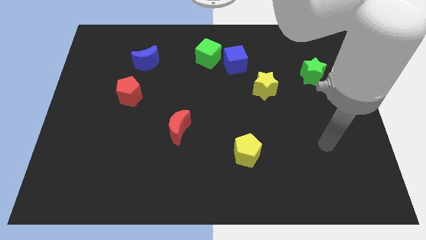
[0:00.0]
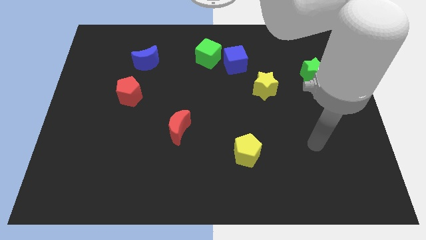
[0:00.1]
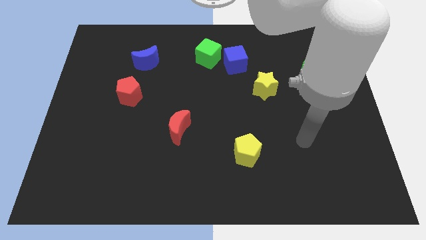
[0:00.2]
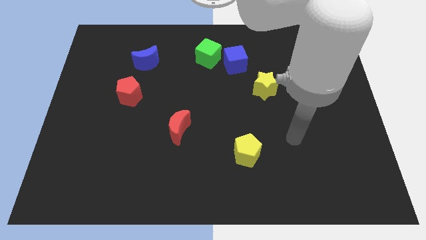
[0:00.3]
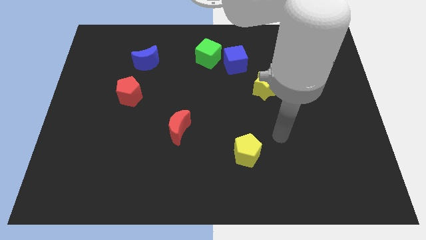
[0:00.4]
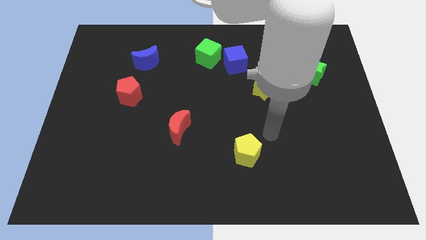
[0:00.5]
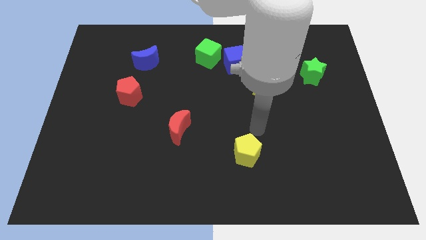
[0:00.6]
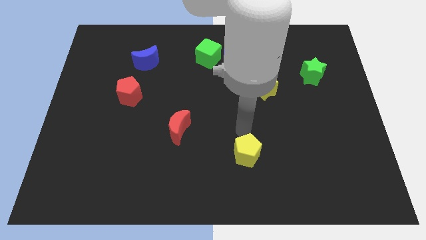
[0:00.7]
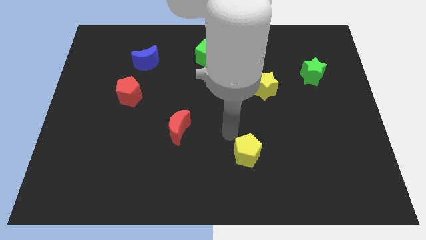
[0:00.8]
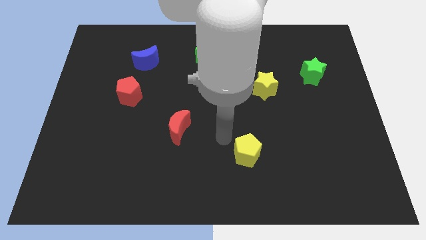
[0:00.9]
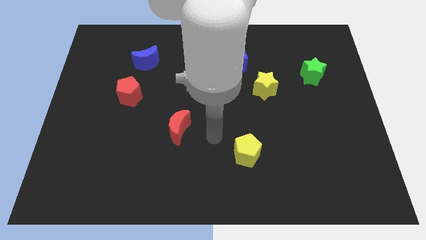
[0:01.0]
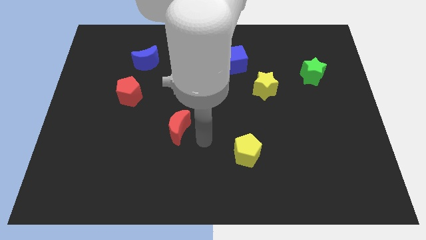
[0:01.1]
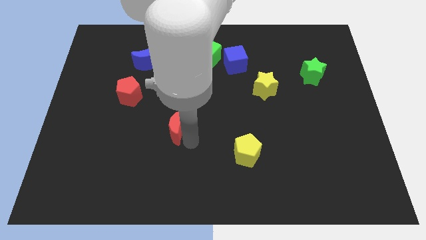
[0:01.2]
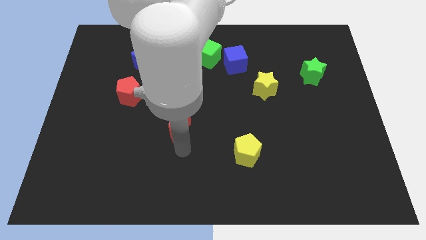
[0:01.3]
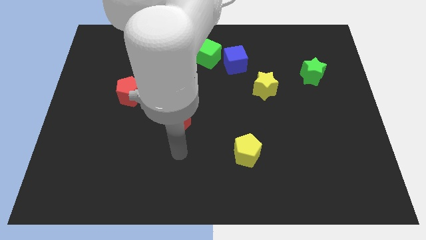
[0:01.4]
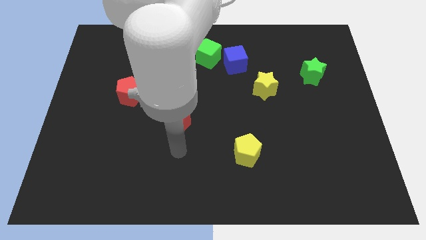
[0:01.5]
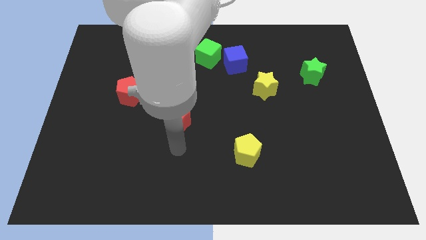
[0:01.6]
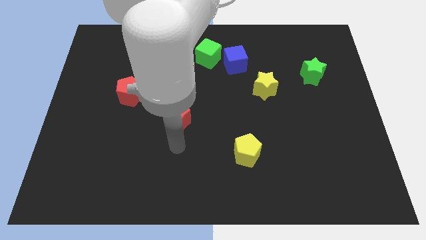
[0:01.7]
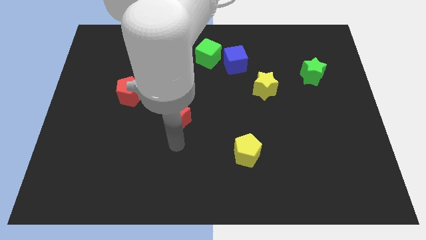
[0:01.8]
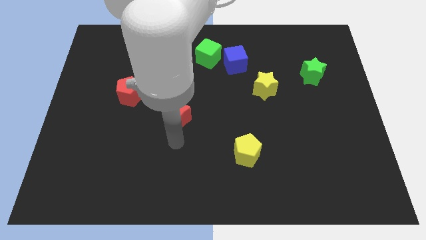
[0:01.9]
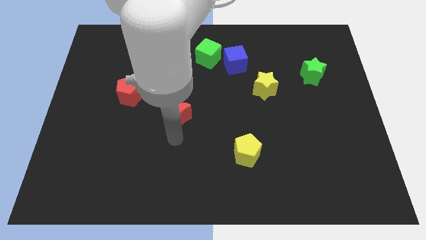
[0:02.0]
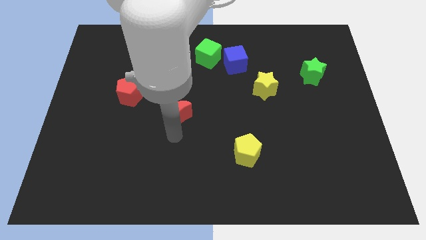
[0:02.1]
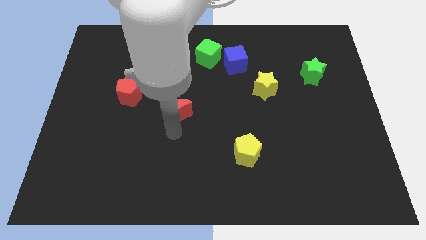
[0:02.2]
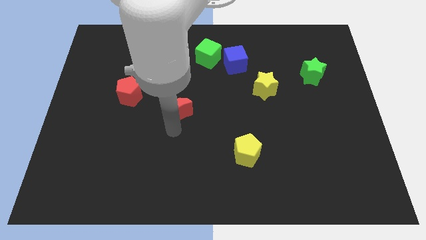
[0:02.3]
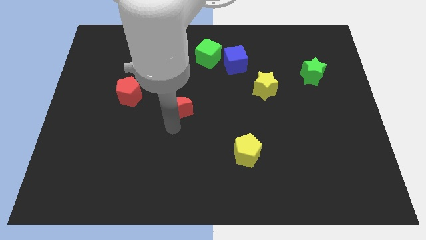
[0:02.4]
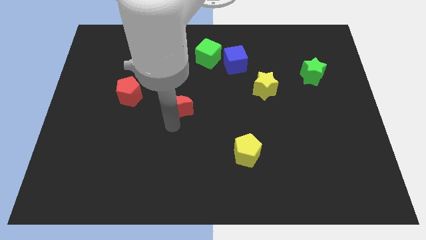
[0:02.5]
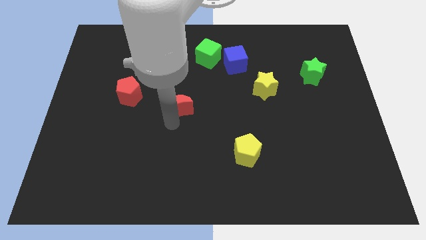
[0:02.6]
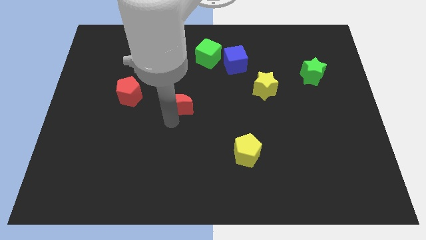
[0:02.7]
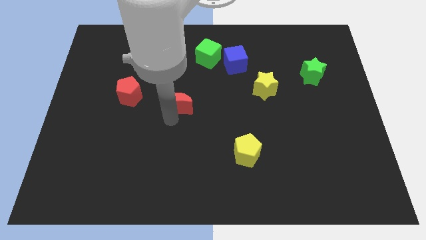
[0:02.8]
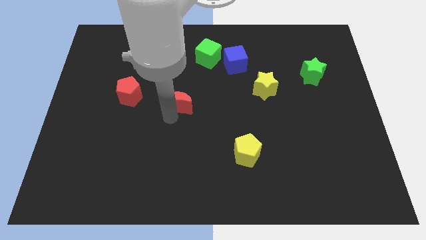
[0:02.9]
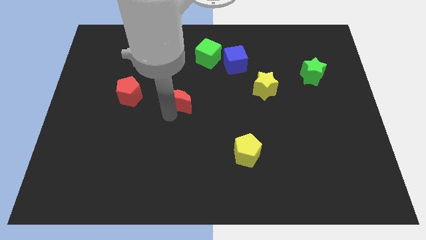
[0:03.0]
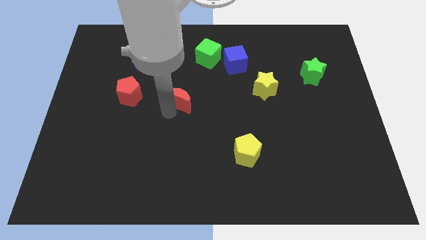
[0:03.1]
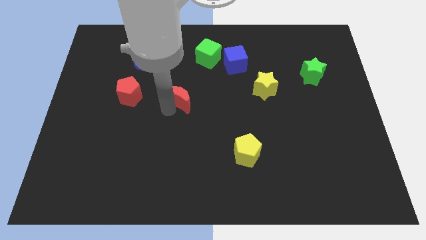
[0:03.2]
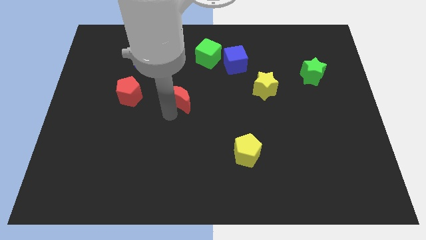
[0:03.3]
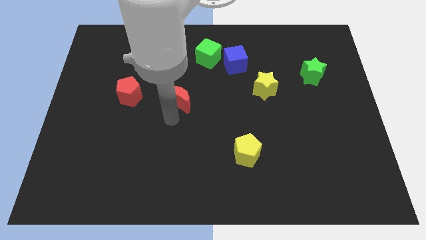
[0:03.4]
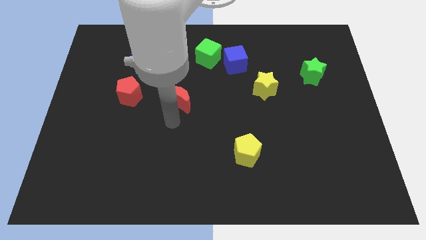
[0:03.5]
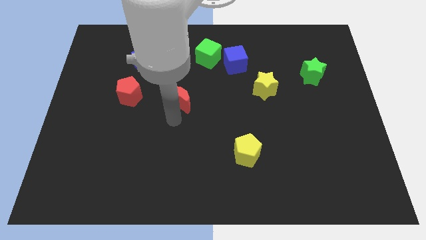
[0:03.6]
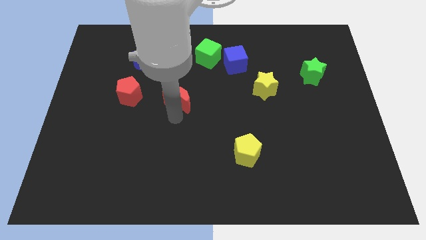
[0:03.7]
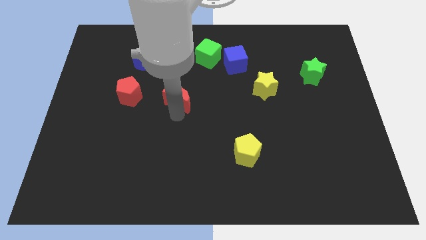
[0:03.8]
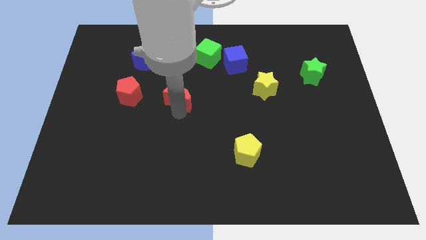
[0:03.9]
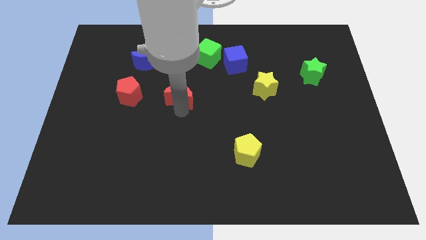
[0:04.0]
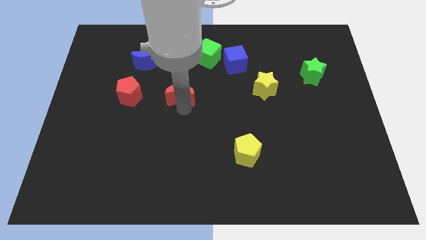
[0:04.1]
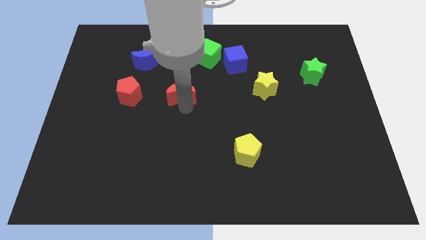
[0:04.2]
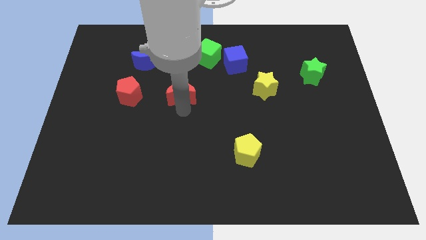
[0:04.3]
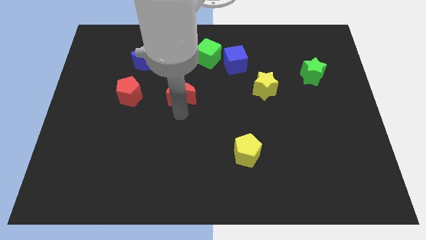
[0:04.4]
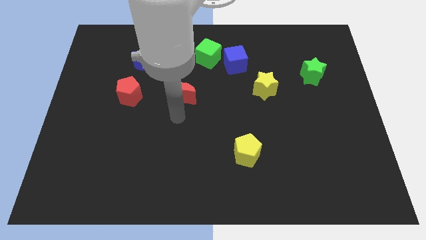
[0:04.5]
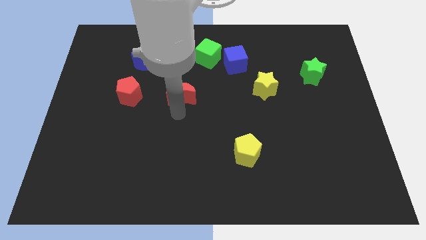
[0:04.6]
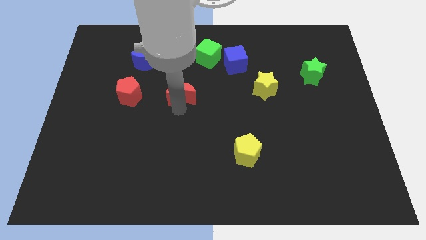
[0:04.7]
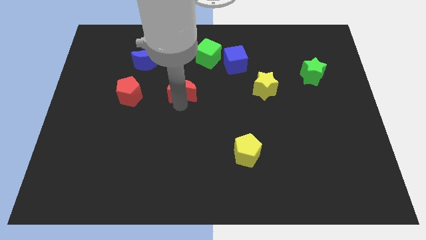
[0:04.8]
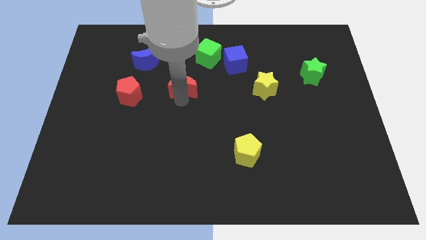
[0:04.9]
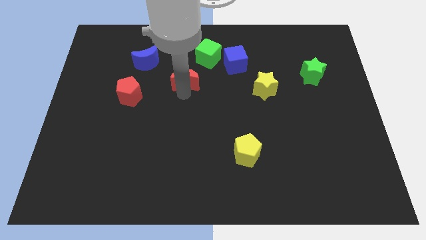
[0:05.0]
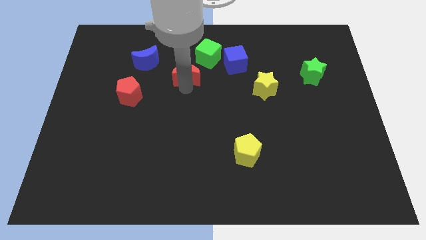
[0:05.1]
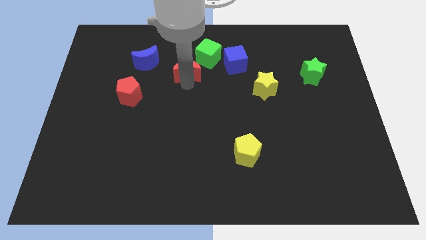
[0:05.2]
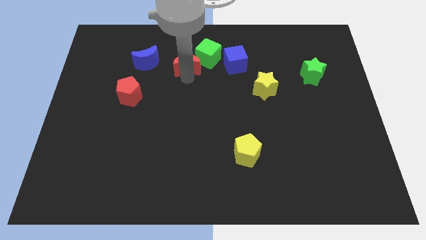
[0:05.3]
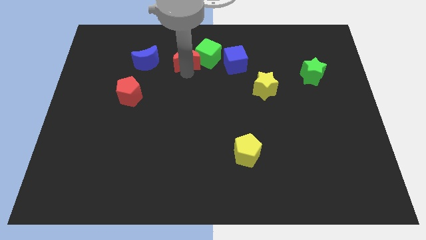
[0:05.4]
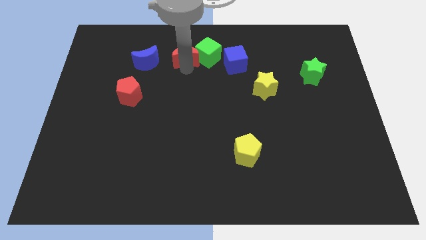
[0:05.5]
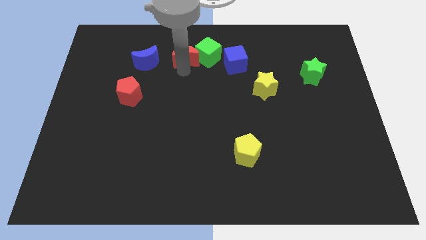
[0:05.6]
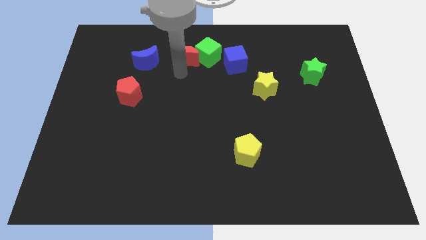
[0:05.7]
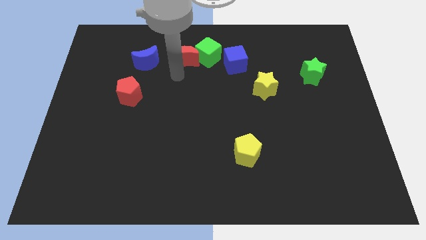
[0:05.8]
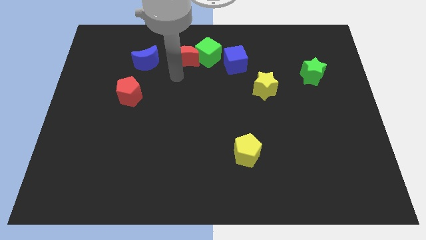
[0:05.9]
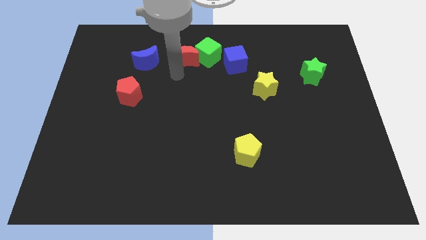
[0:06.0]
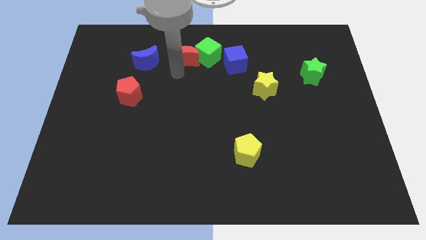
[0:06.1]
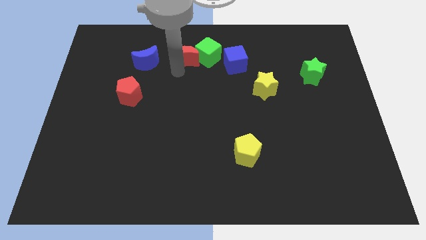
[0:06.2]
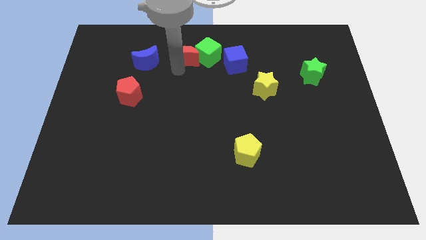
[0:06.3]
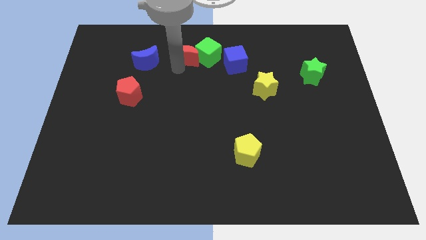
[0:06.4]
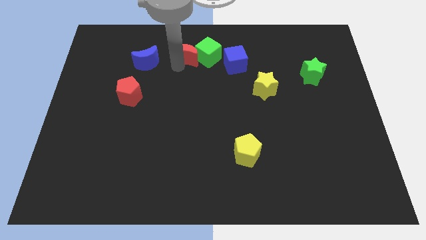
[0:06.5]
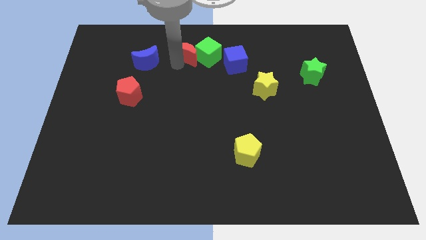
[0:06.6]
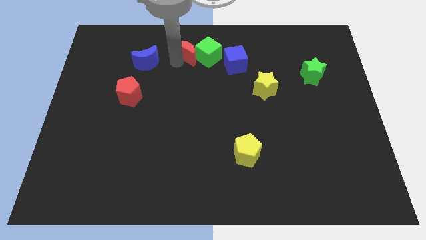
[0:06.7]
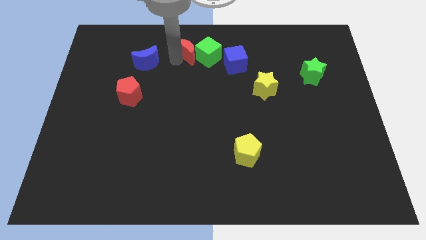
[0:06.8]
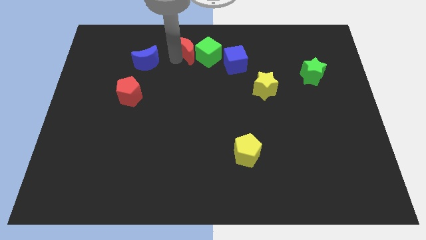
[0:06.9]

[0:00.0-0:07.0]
move the red moon to the top
